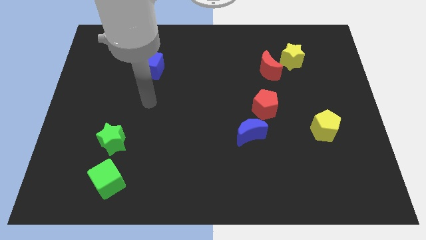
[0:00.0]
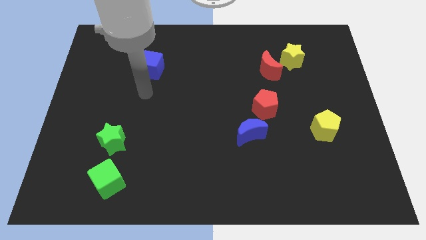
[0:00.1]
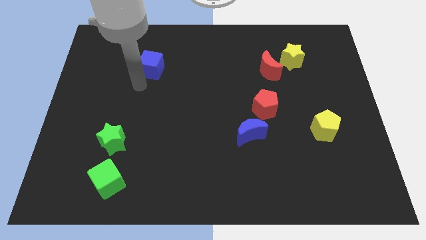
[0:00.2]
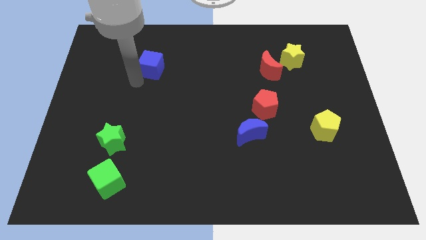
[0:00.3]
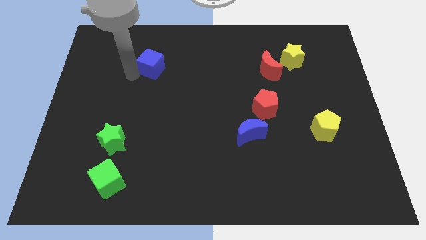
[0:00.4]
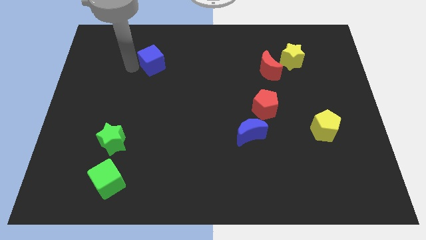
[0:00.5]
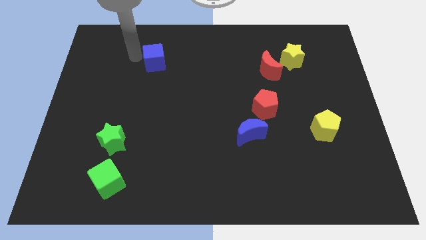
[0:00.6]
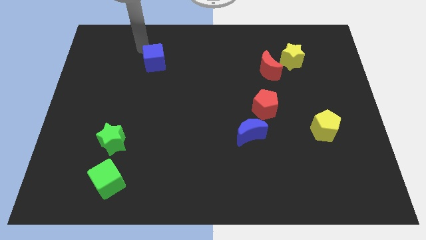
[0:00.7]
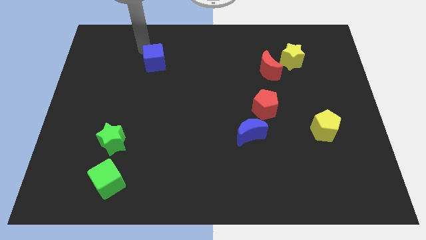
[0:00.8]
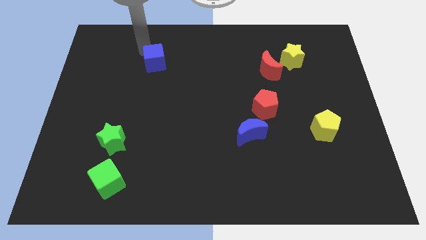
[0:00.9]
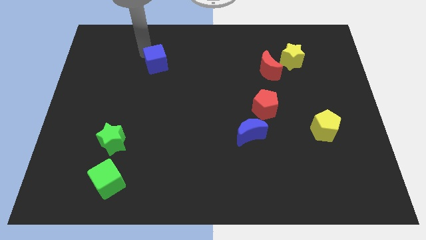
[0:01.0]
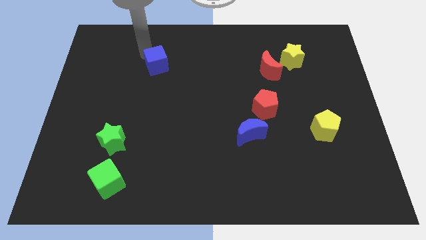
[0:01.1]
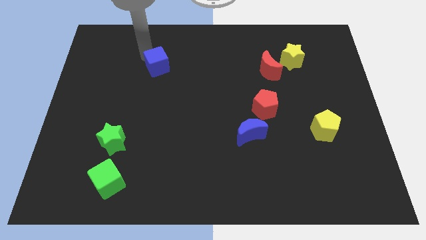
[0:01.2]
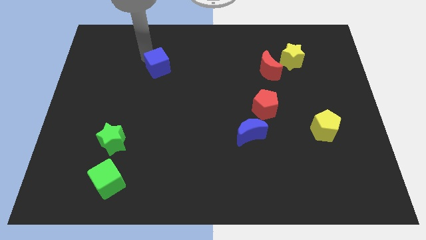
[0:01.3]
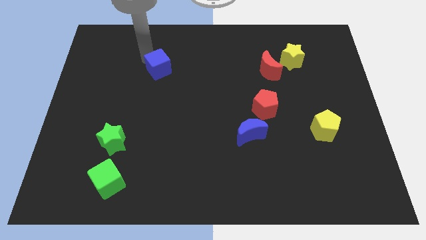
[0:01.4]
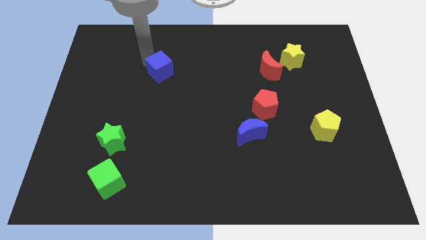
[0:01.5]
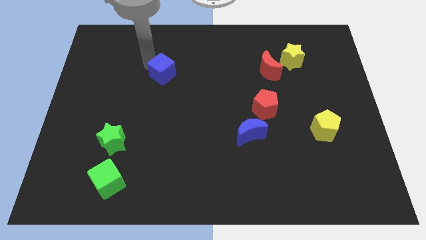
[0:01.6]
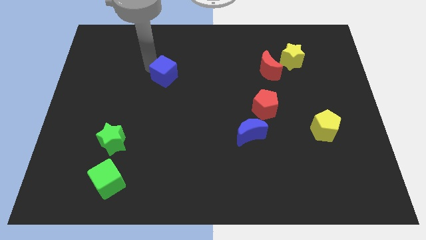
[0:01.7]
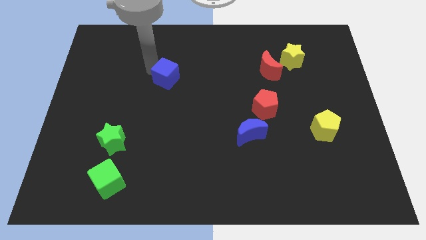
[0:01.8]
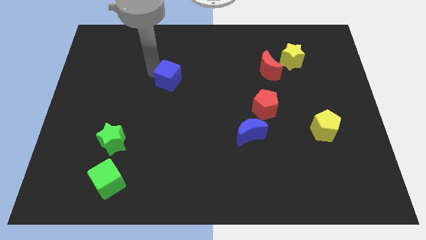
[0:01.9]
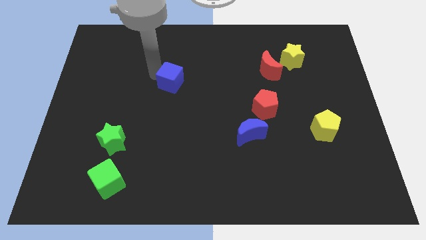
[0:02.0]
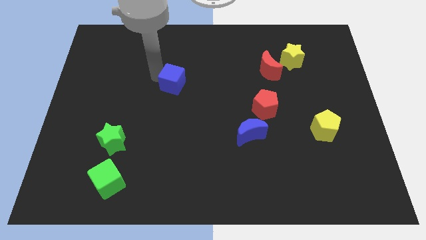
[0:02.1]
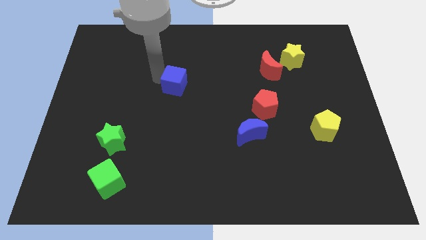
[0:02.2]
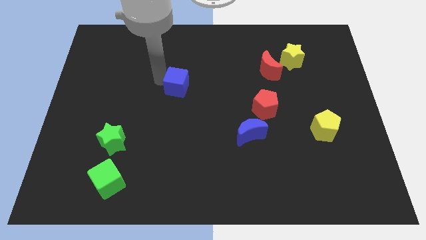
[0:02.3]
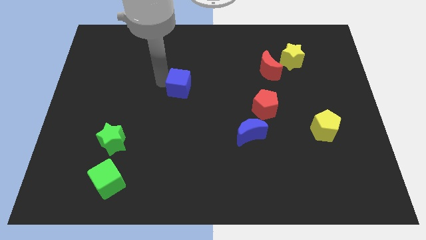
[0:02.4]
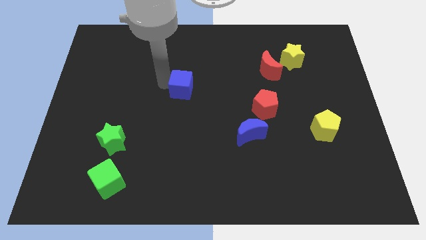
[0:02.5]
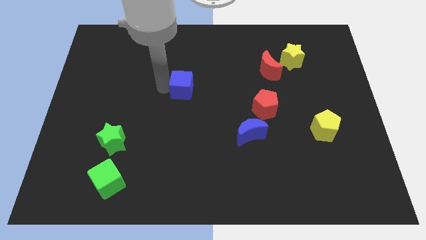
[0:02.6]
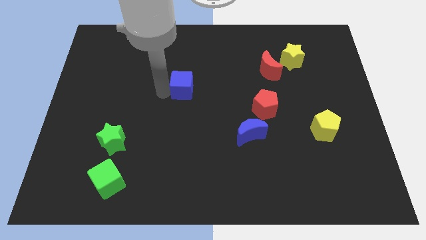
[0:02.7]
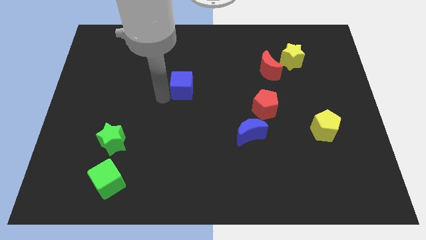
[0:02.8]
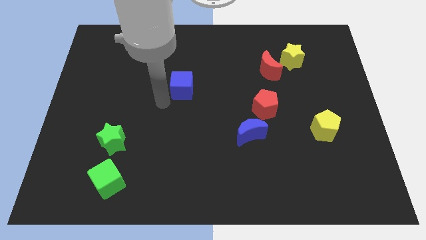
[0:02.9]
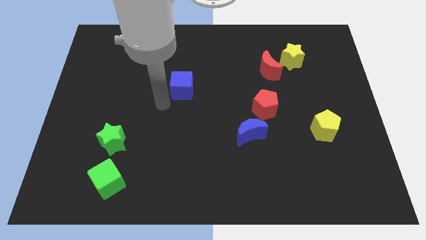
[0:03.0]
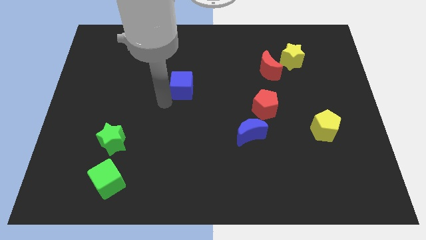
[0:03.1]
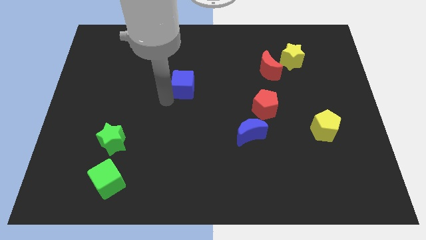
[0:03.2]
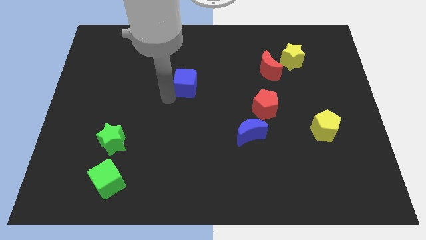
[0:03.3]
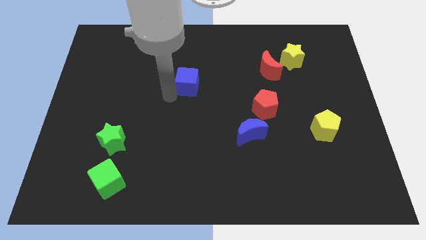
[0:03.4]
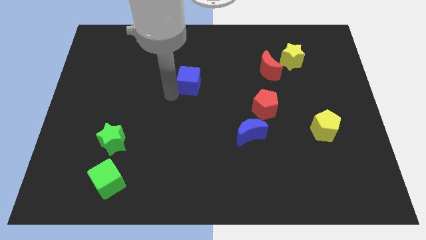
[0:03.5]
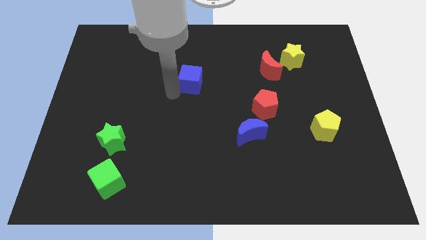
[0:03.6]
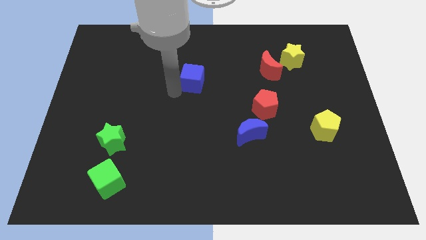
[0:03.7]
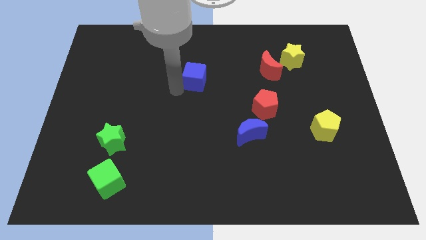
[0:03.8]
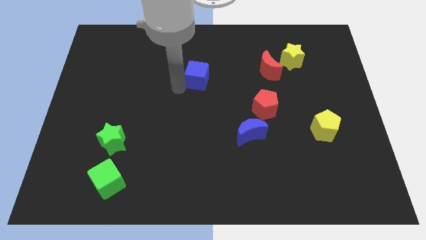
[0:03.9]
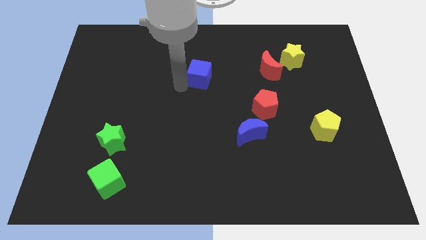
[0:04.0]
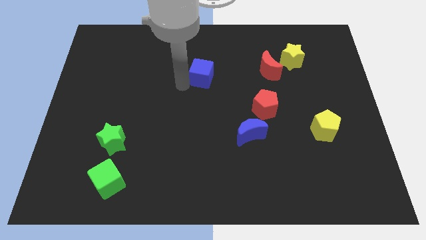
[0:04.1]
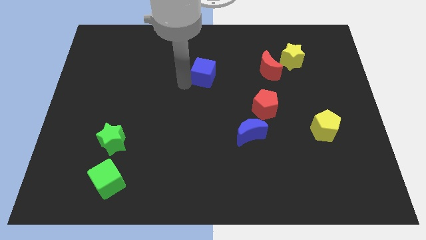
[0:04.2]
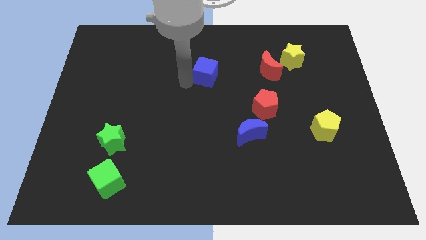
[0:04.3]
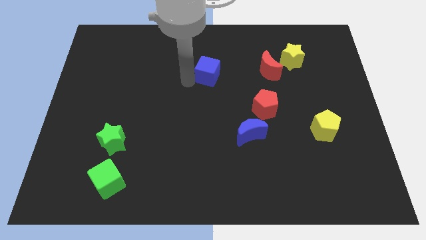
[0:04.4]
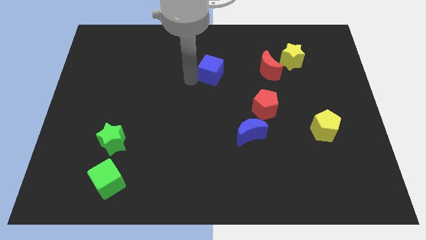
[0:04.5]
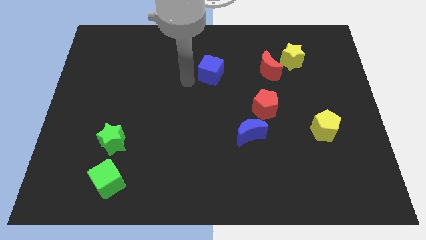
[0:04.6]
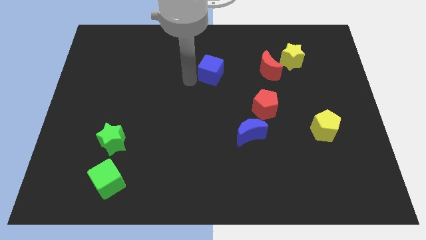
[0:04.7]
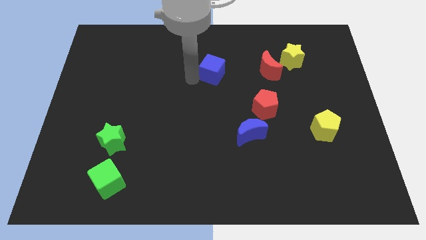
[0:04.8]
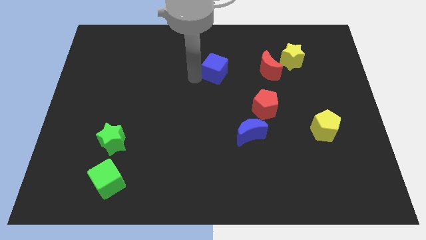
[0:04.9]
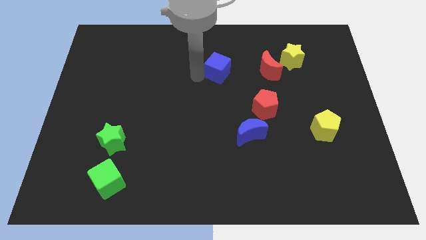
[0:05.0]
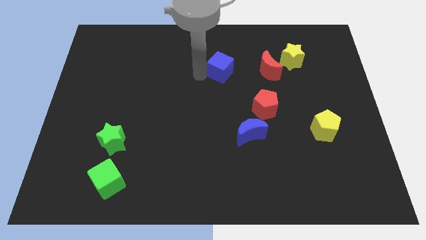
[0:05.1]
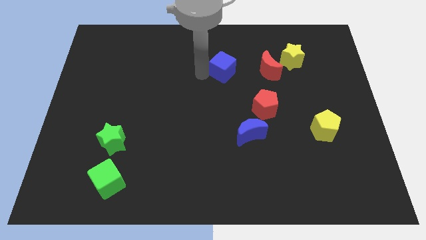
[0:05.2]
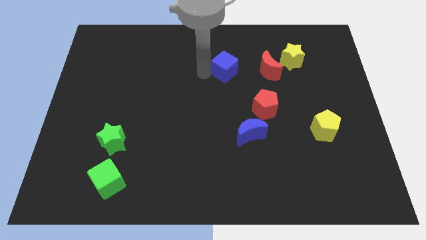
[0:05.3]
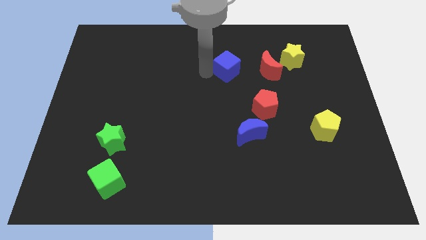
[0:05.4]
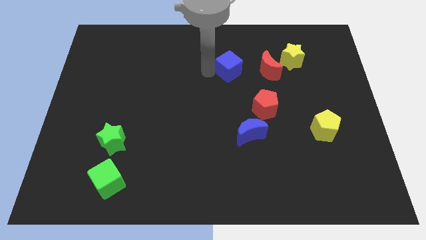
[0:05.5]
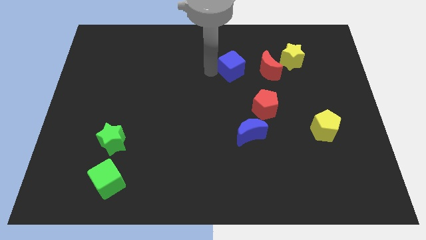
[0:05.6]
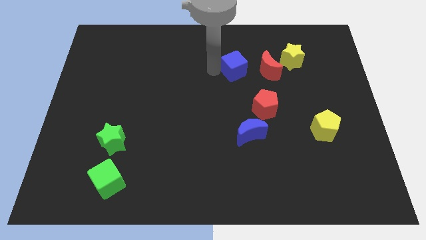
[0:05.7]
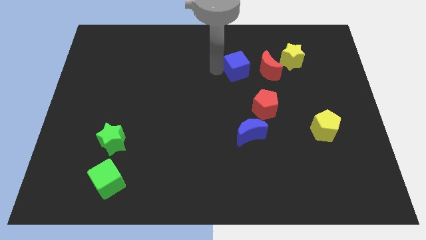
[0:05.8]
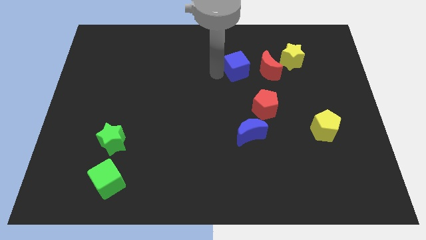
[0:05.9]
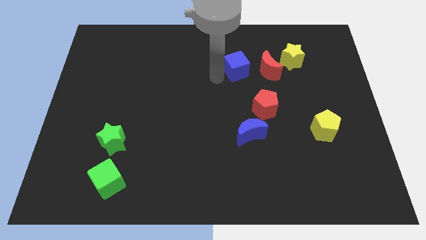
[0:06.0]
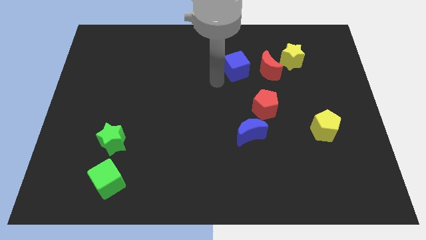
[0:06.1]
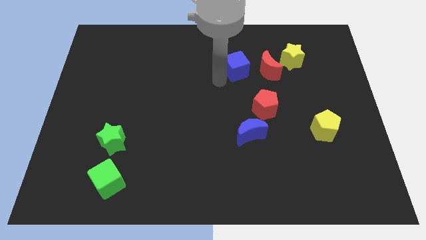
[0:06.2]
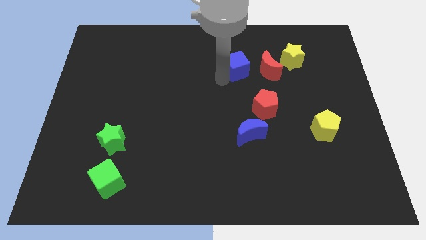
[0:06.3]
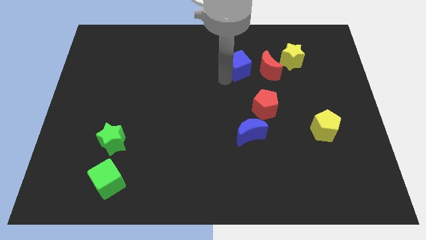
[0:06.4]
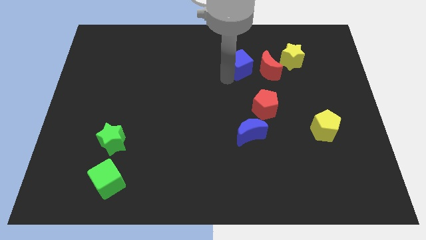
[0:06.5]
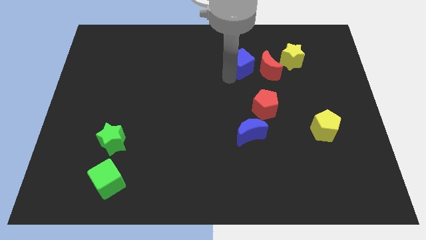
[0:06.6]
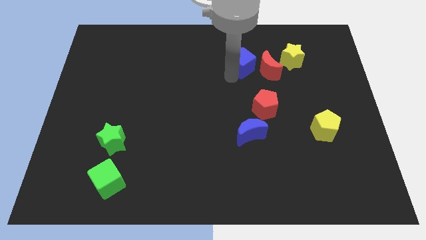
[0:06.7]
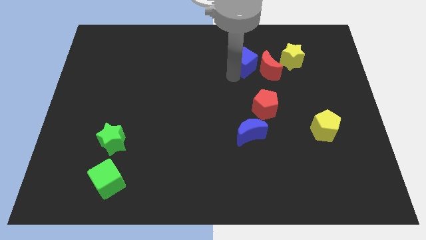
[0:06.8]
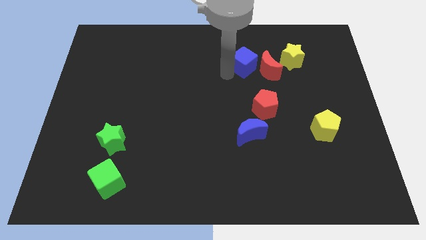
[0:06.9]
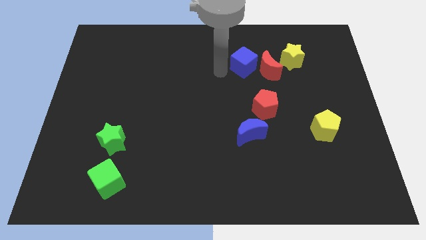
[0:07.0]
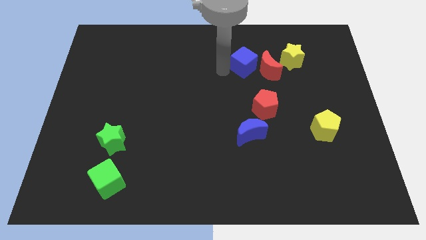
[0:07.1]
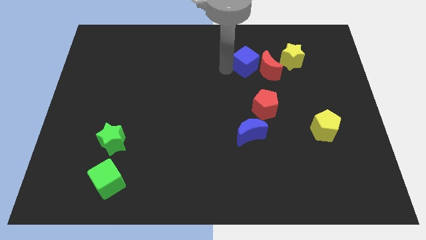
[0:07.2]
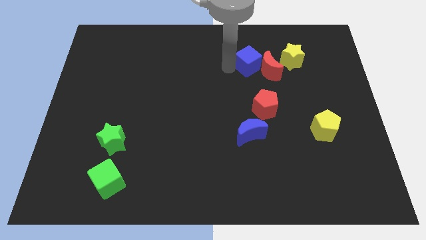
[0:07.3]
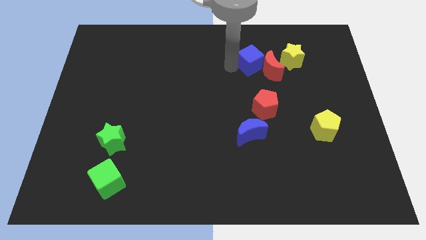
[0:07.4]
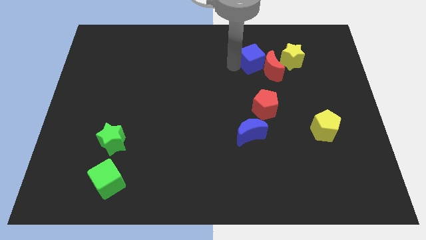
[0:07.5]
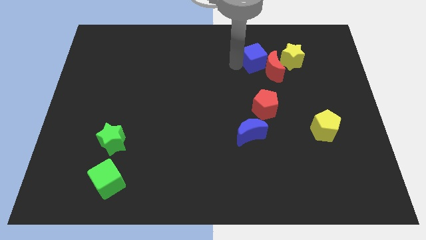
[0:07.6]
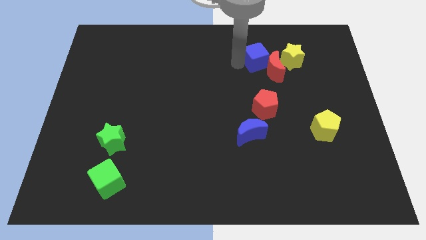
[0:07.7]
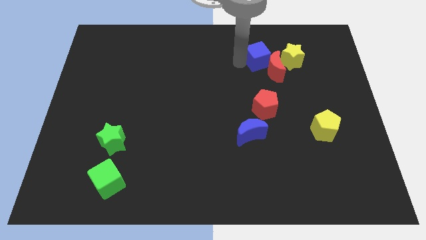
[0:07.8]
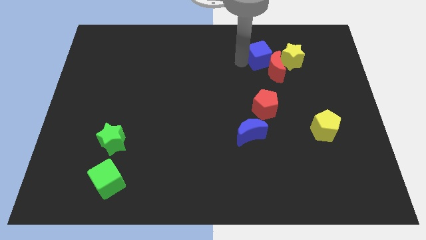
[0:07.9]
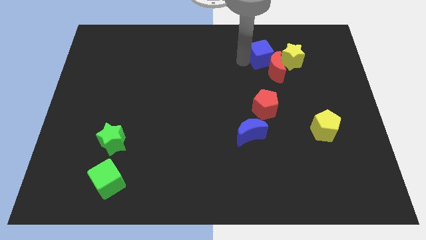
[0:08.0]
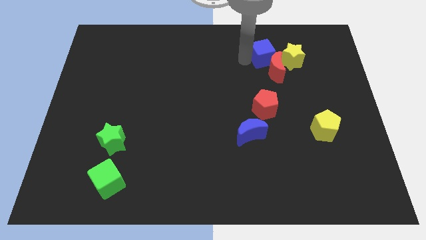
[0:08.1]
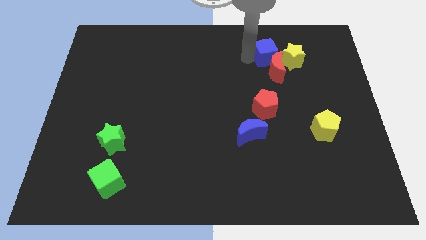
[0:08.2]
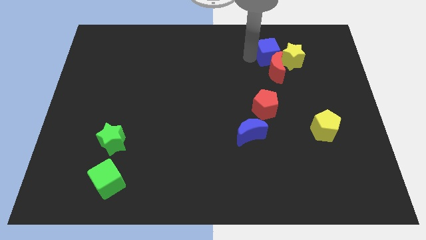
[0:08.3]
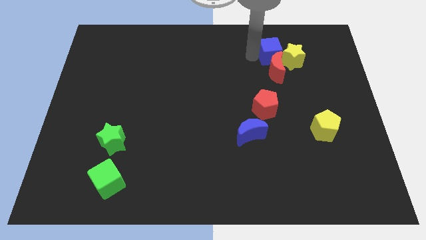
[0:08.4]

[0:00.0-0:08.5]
put the blue cube next to the yellow star
